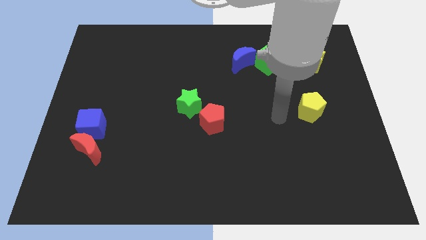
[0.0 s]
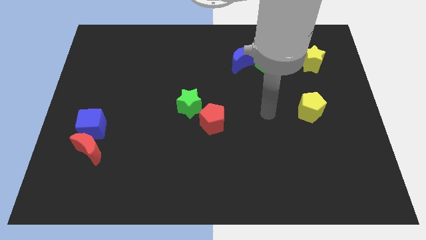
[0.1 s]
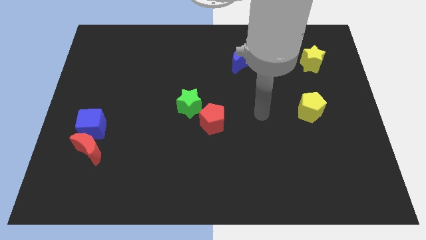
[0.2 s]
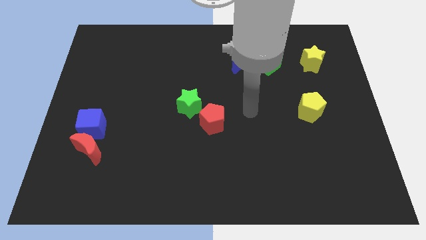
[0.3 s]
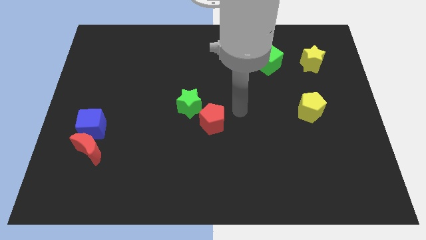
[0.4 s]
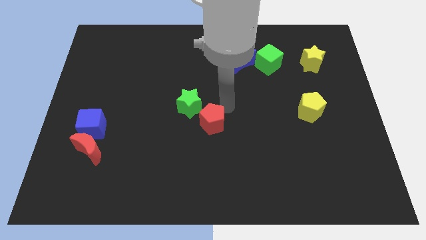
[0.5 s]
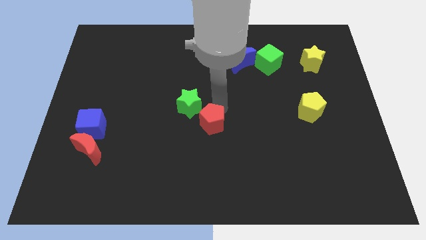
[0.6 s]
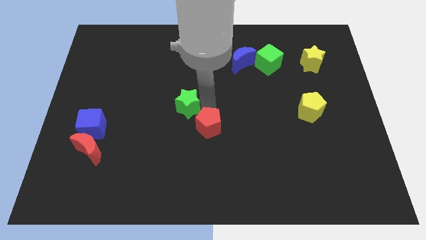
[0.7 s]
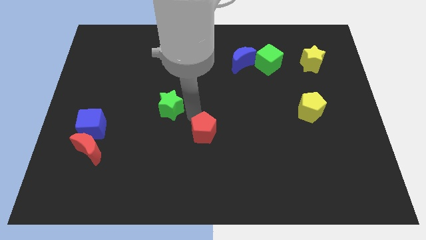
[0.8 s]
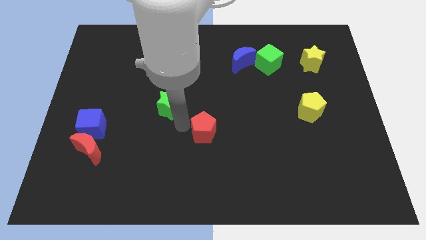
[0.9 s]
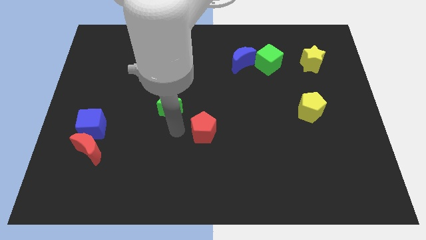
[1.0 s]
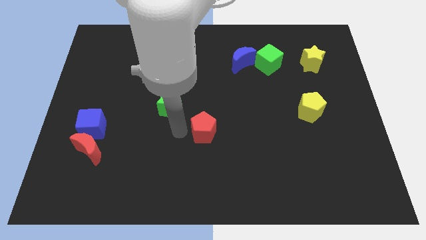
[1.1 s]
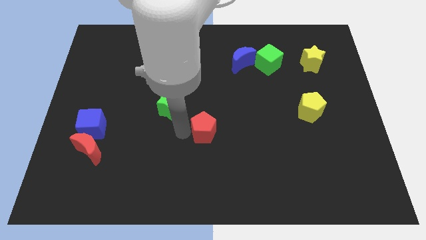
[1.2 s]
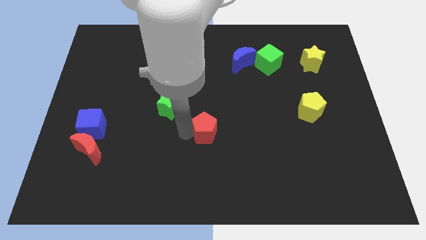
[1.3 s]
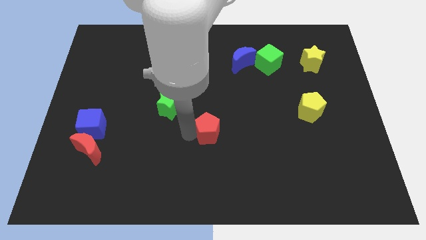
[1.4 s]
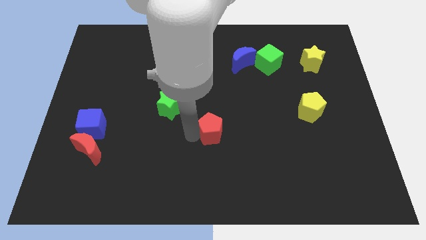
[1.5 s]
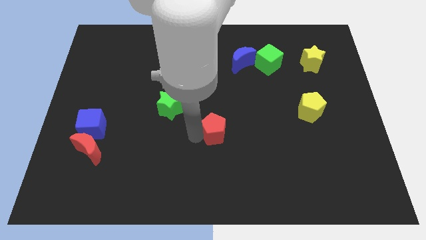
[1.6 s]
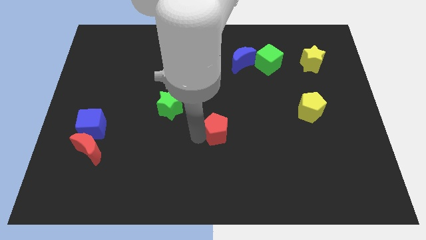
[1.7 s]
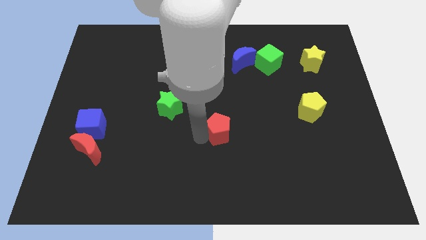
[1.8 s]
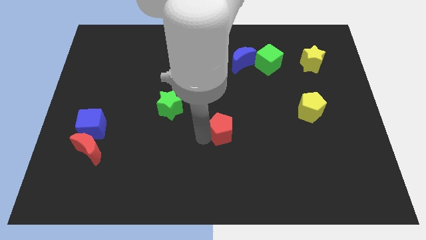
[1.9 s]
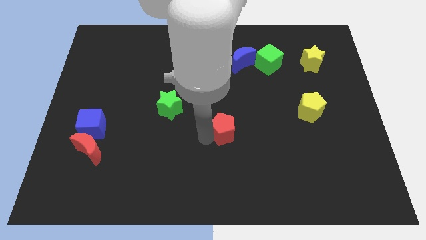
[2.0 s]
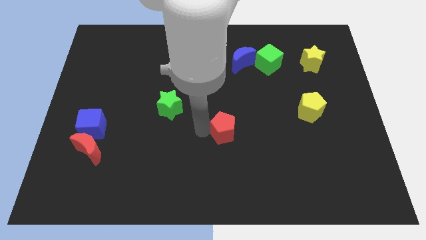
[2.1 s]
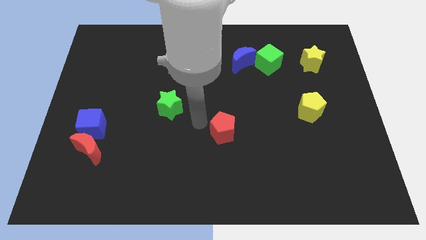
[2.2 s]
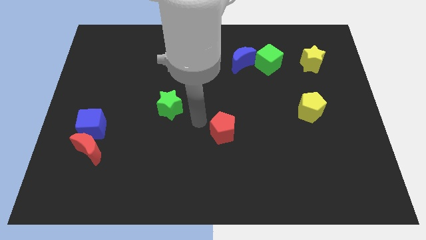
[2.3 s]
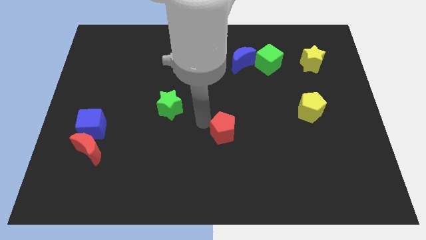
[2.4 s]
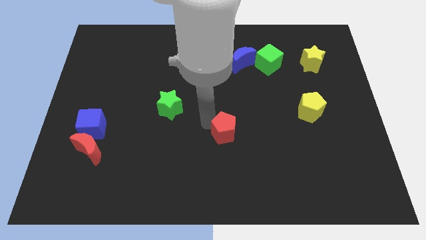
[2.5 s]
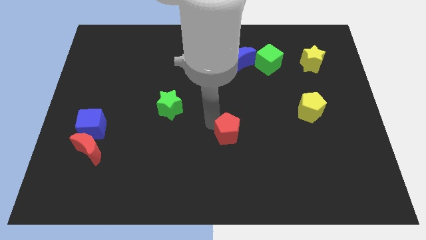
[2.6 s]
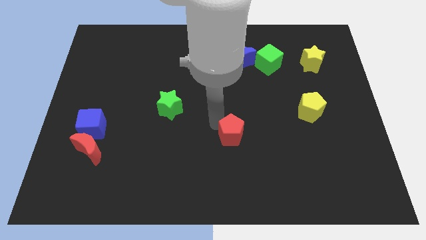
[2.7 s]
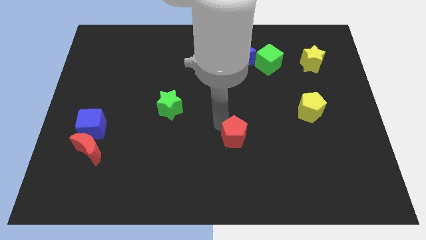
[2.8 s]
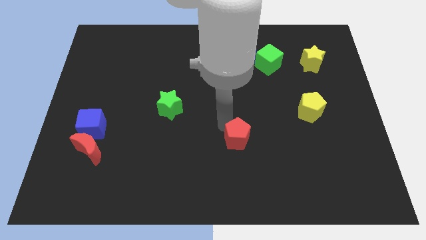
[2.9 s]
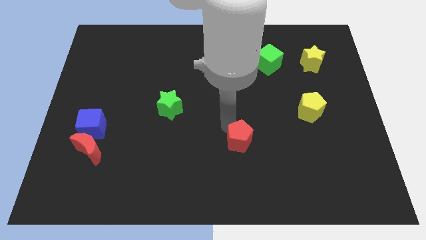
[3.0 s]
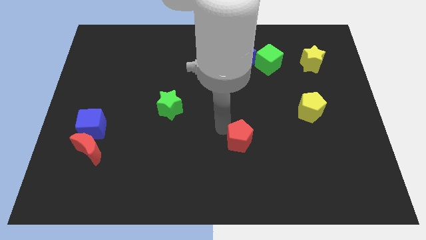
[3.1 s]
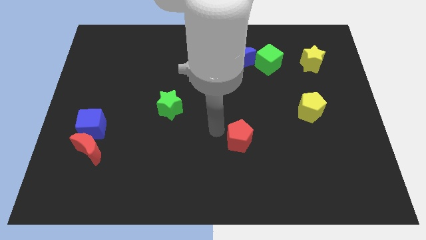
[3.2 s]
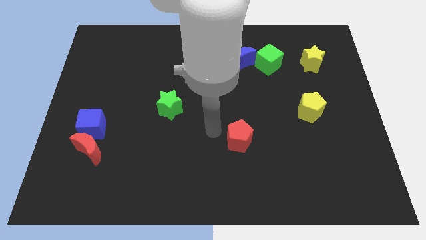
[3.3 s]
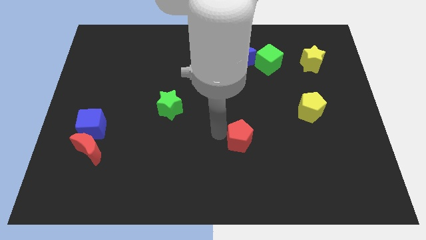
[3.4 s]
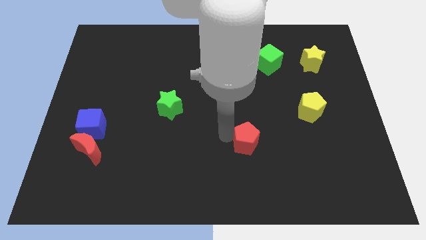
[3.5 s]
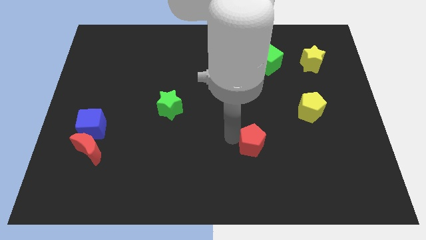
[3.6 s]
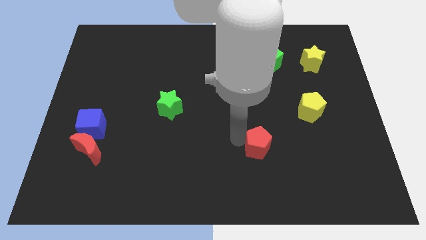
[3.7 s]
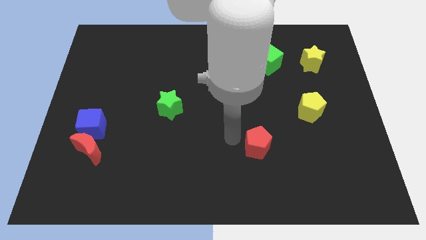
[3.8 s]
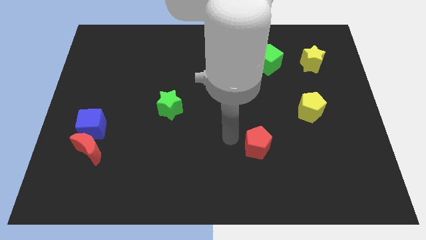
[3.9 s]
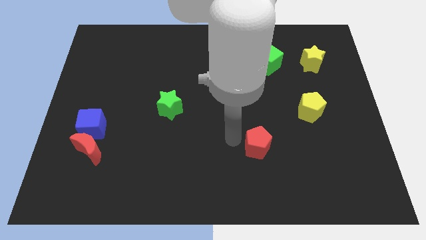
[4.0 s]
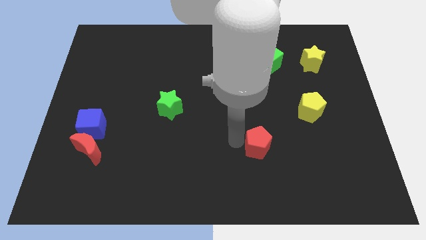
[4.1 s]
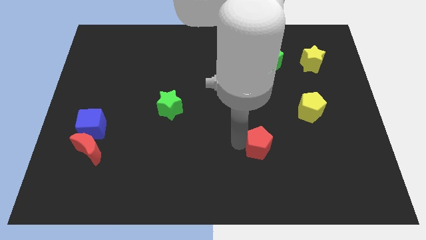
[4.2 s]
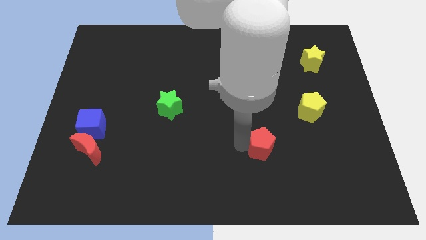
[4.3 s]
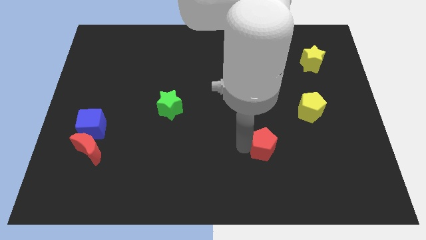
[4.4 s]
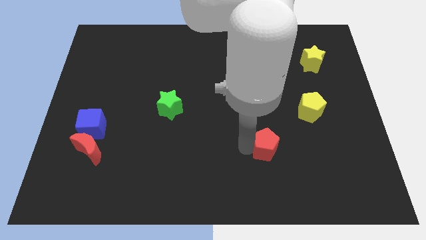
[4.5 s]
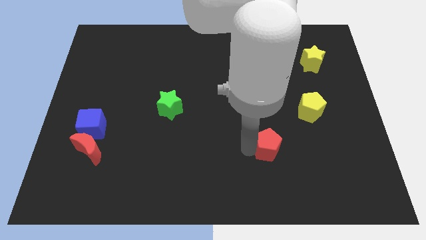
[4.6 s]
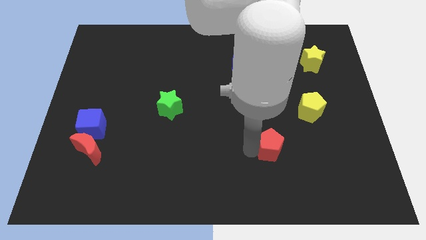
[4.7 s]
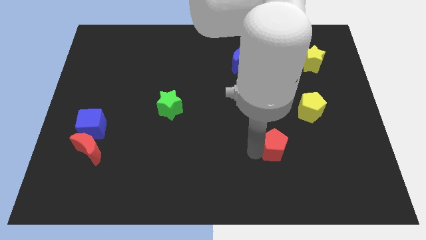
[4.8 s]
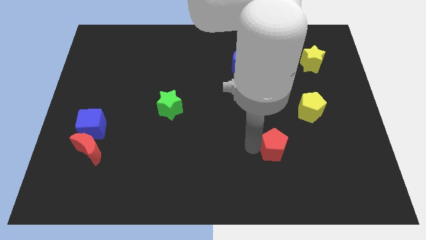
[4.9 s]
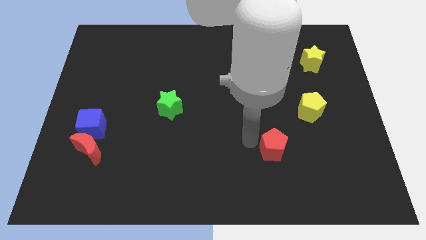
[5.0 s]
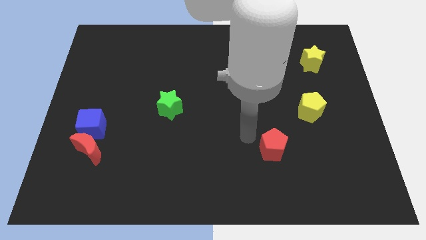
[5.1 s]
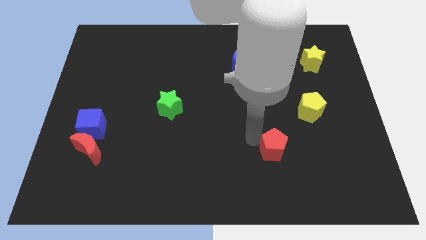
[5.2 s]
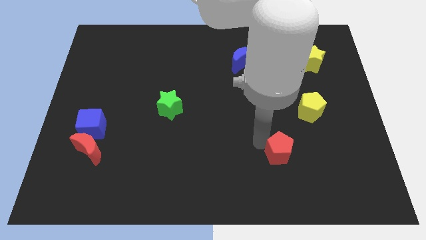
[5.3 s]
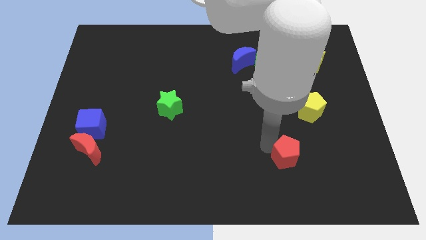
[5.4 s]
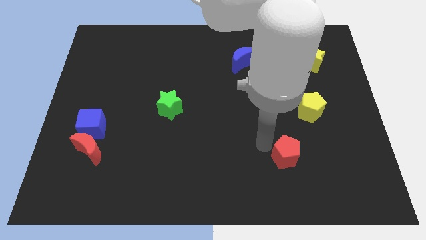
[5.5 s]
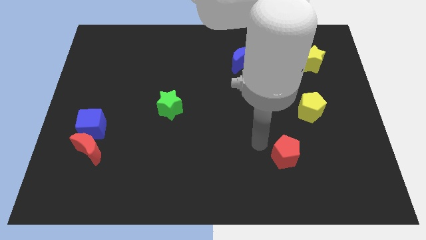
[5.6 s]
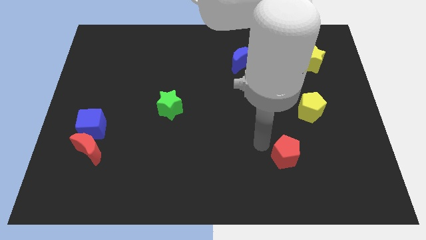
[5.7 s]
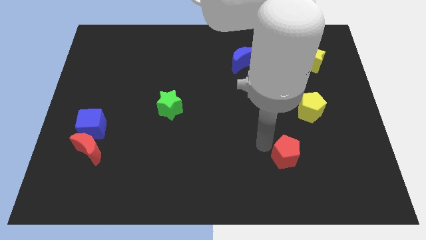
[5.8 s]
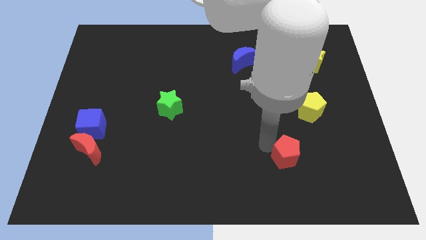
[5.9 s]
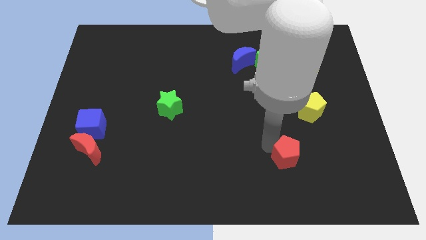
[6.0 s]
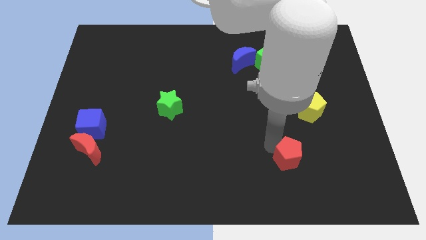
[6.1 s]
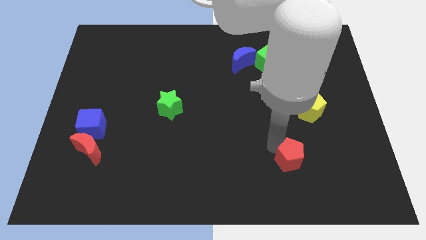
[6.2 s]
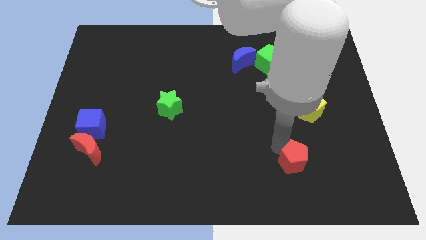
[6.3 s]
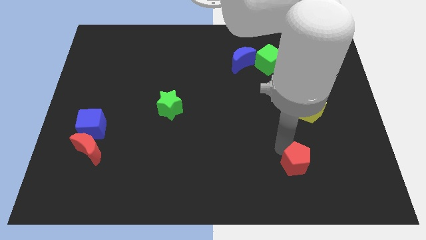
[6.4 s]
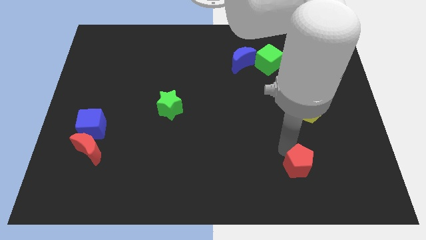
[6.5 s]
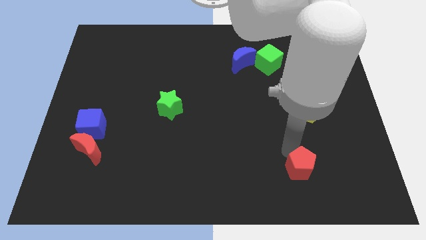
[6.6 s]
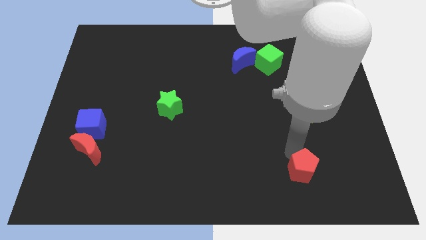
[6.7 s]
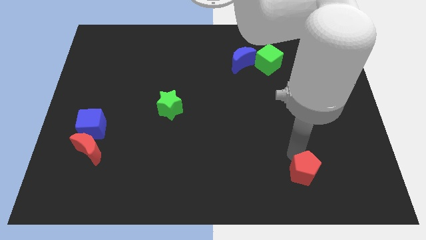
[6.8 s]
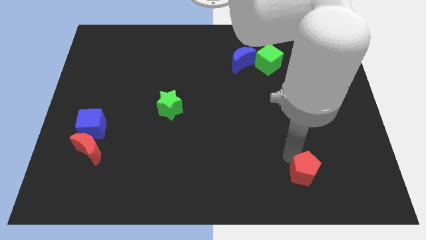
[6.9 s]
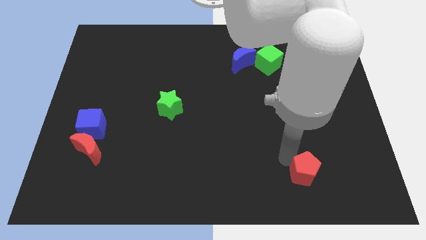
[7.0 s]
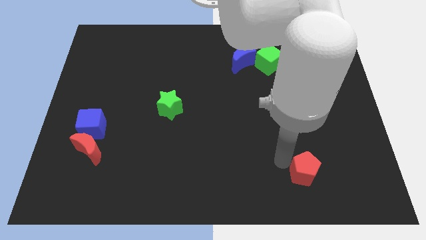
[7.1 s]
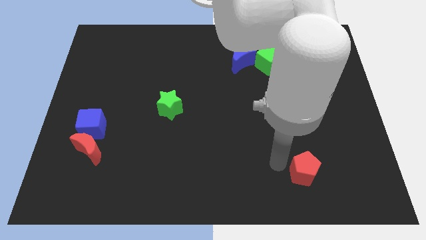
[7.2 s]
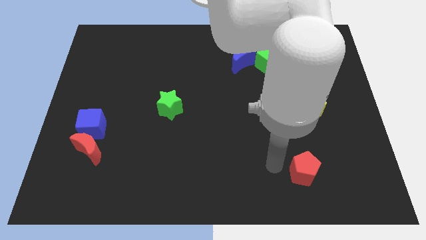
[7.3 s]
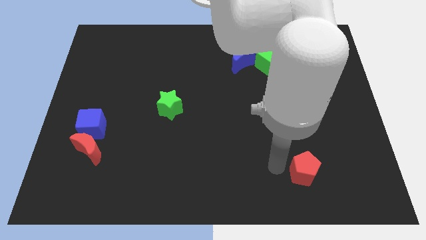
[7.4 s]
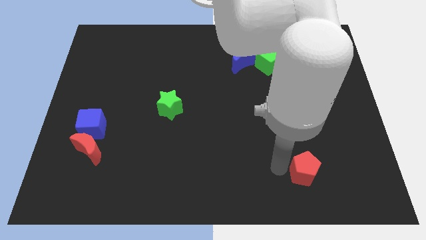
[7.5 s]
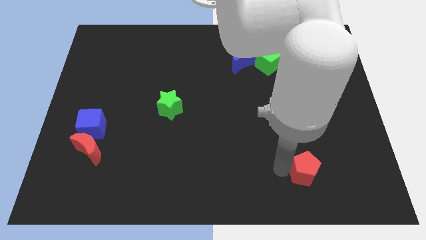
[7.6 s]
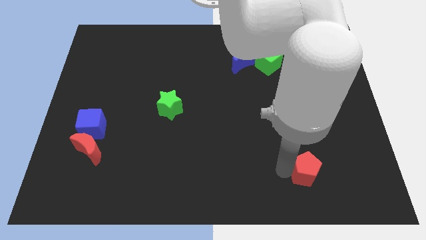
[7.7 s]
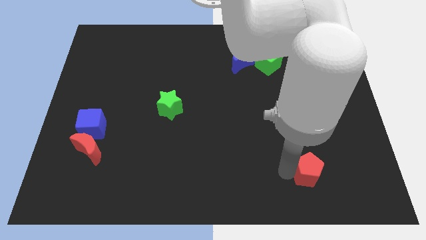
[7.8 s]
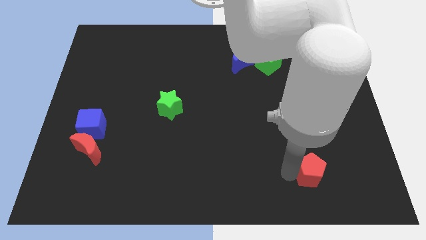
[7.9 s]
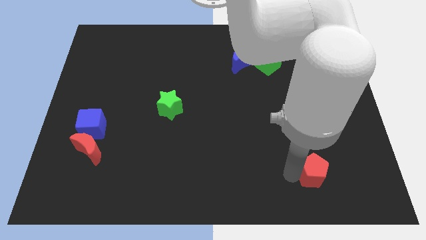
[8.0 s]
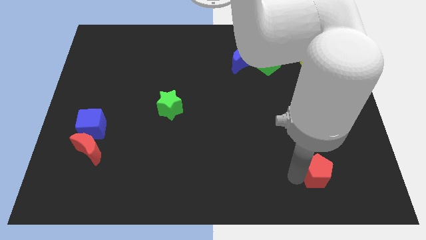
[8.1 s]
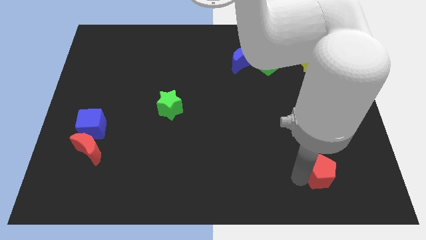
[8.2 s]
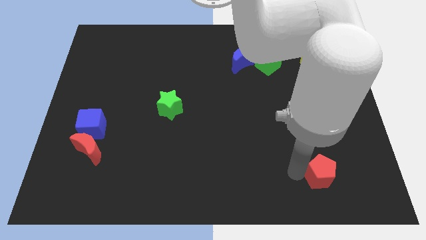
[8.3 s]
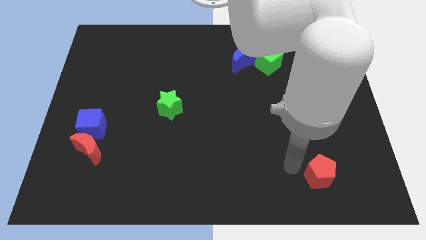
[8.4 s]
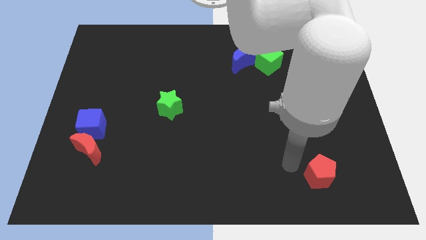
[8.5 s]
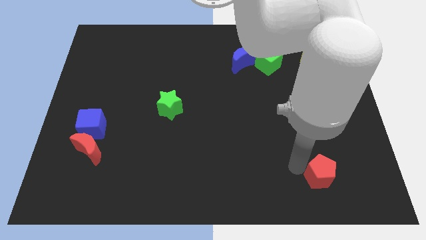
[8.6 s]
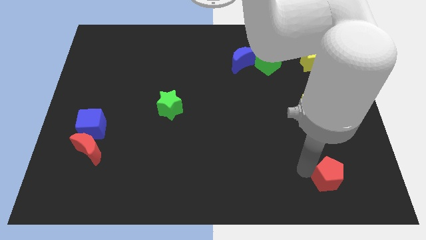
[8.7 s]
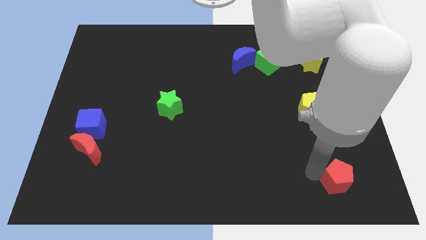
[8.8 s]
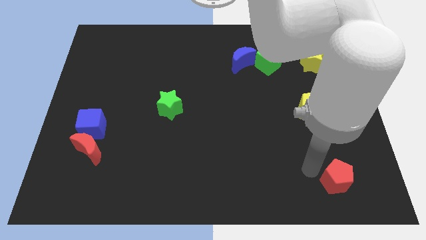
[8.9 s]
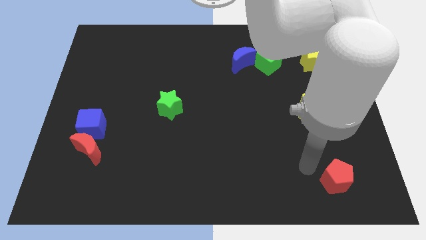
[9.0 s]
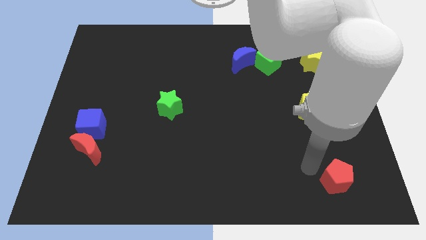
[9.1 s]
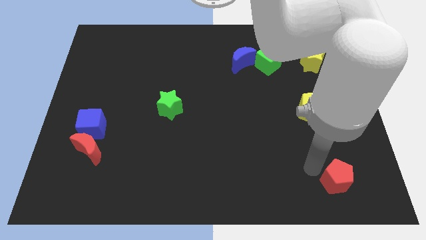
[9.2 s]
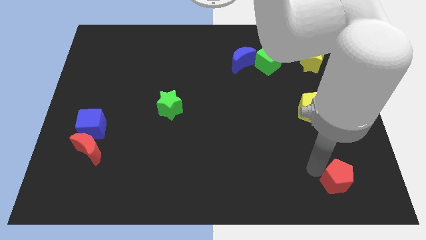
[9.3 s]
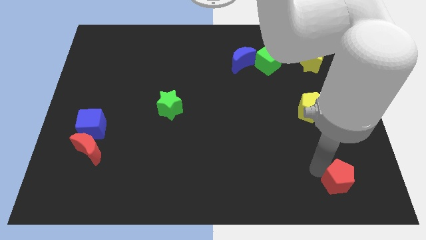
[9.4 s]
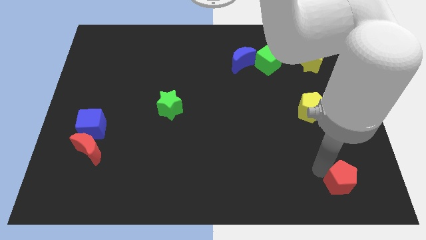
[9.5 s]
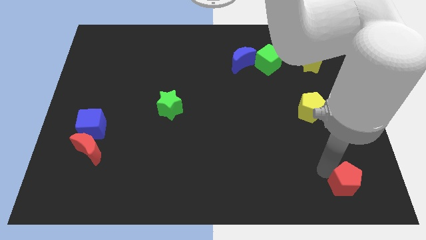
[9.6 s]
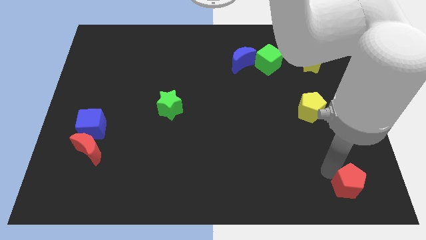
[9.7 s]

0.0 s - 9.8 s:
move the red pentagon to the bottom right of the board
